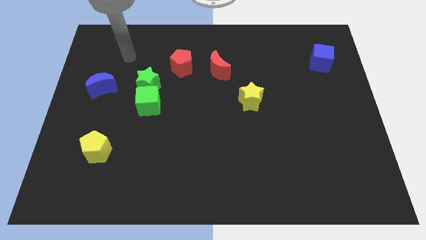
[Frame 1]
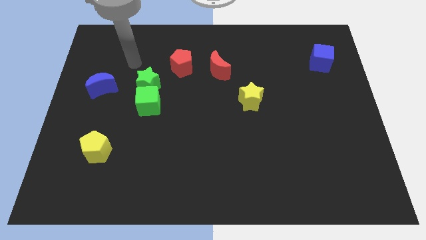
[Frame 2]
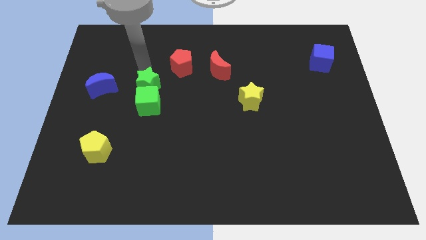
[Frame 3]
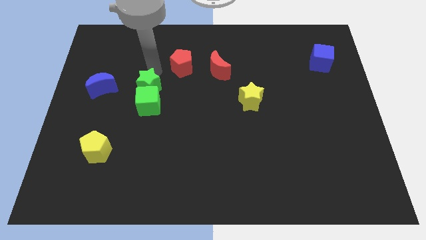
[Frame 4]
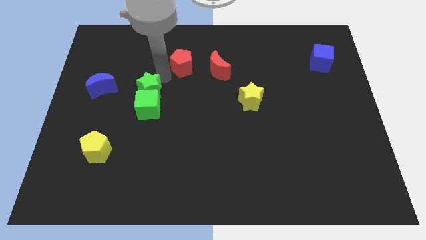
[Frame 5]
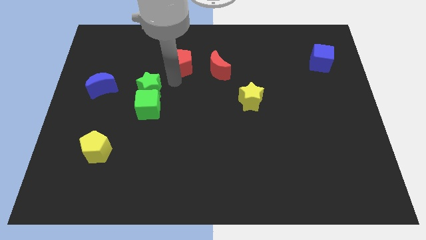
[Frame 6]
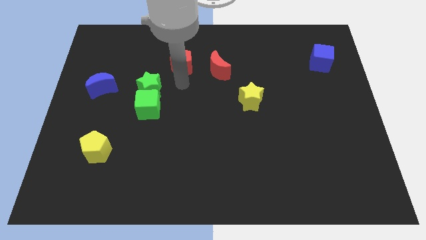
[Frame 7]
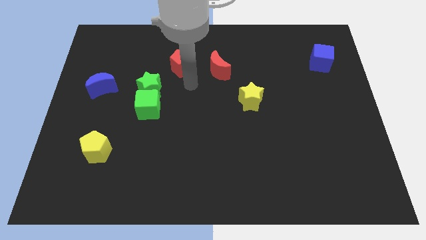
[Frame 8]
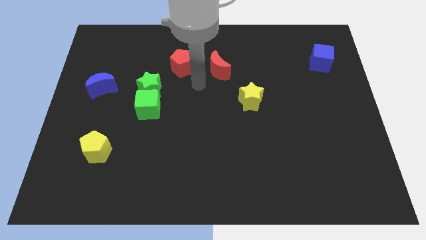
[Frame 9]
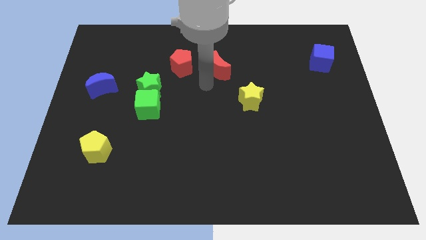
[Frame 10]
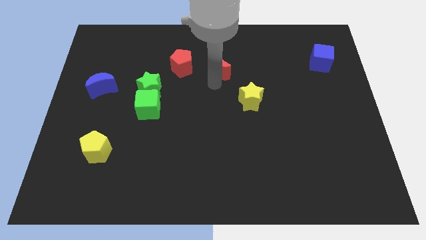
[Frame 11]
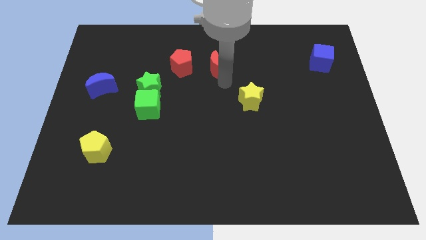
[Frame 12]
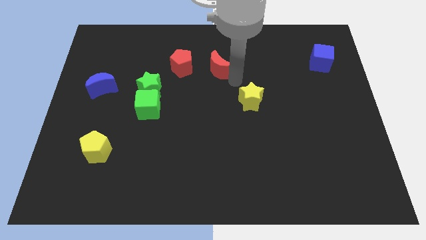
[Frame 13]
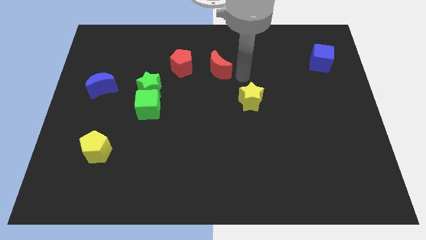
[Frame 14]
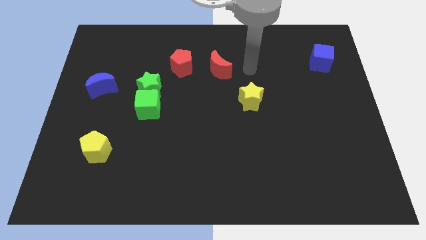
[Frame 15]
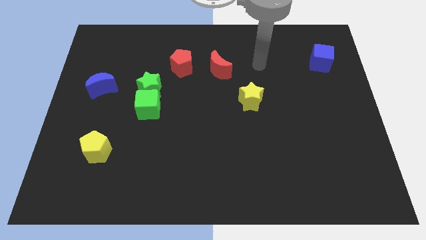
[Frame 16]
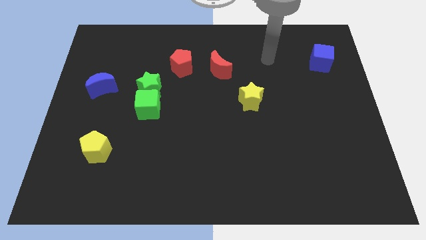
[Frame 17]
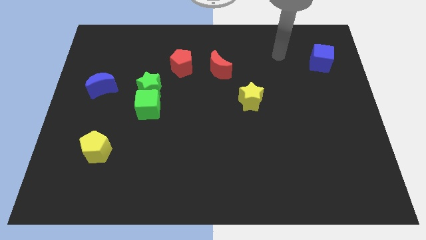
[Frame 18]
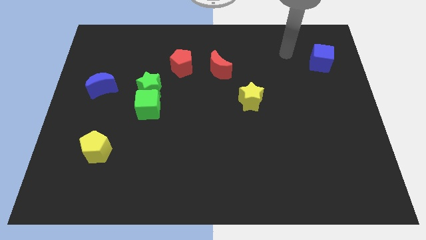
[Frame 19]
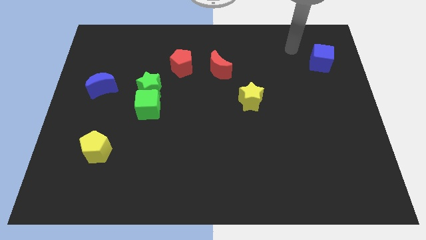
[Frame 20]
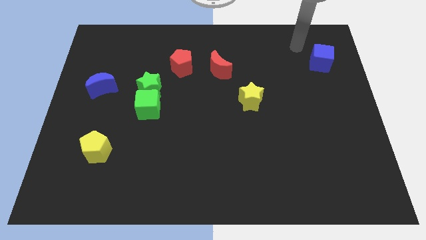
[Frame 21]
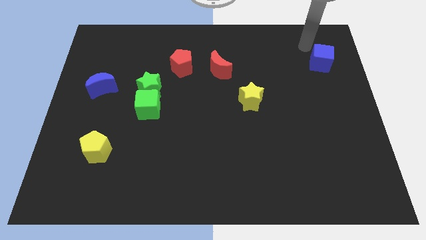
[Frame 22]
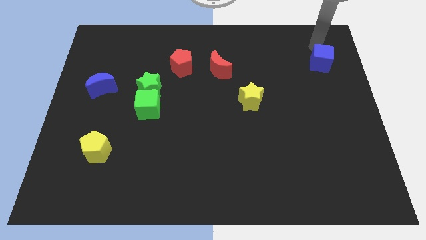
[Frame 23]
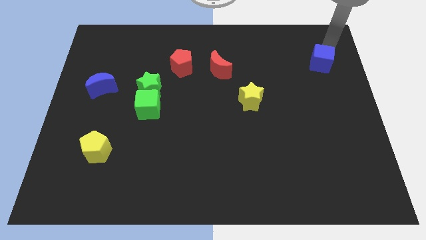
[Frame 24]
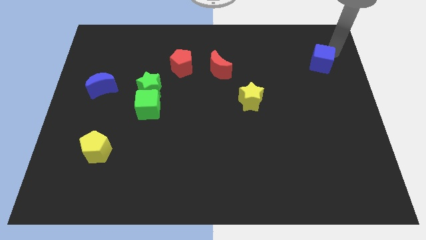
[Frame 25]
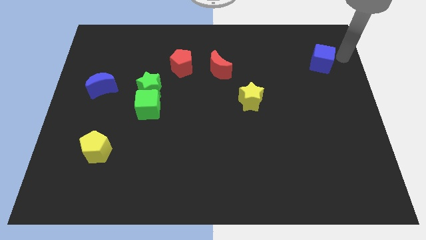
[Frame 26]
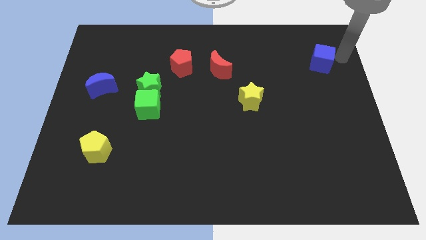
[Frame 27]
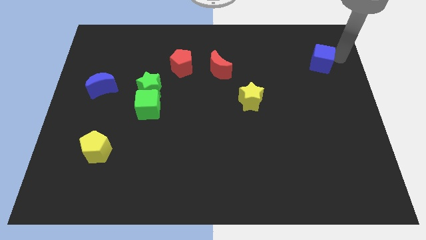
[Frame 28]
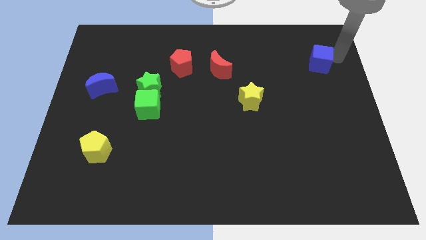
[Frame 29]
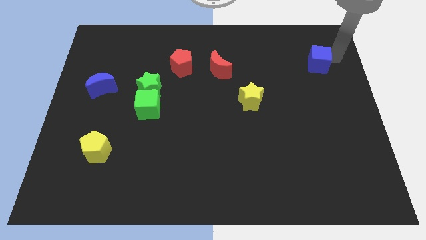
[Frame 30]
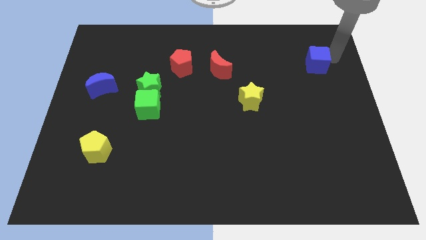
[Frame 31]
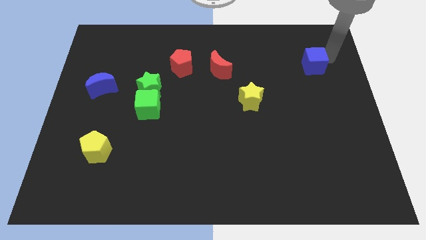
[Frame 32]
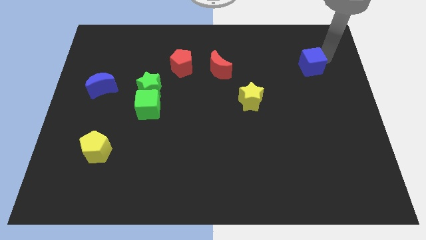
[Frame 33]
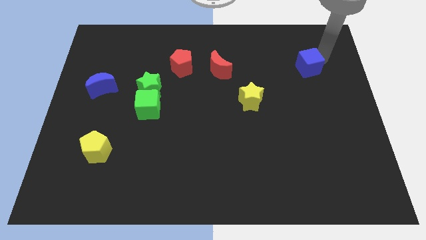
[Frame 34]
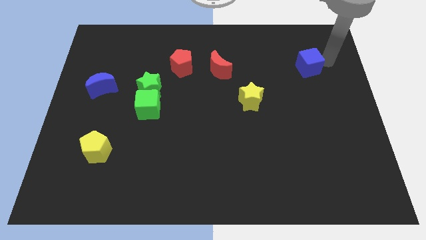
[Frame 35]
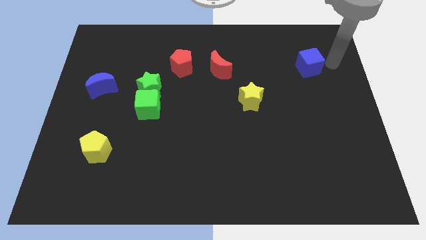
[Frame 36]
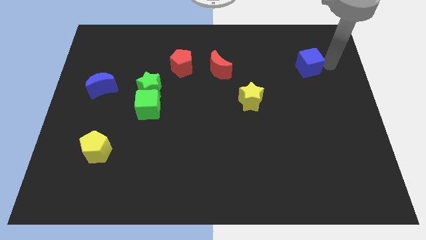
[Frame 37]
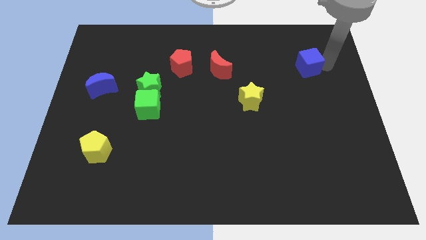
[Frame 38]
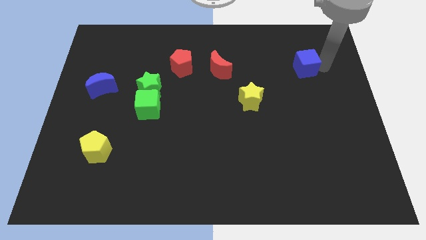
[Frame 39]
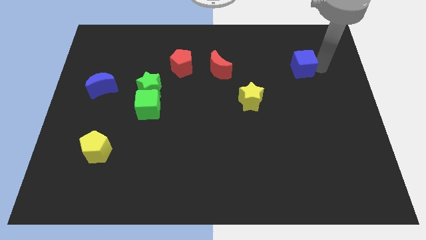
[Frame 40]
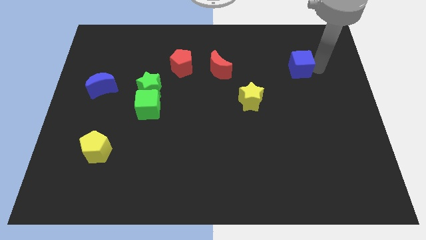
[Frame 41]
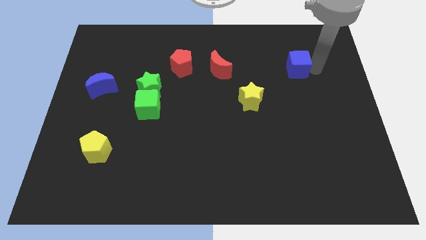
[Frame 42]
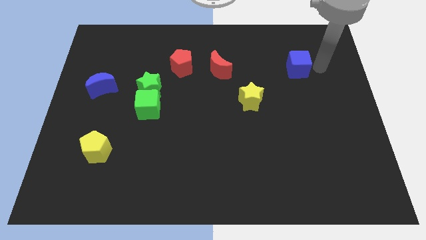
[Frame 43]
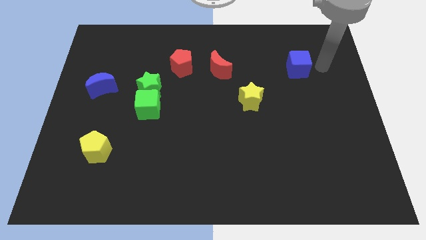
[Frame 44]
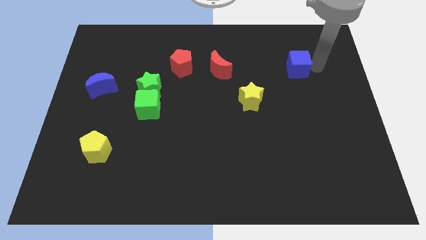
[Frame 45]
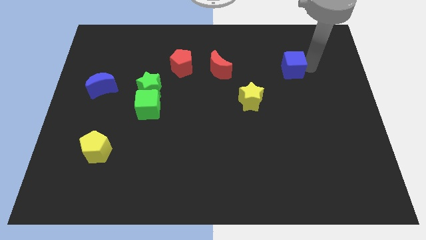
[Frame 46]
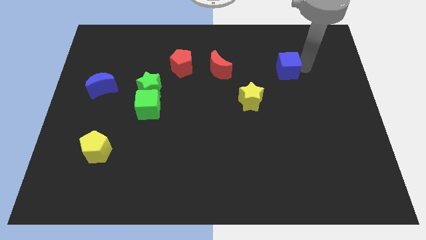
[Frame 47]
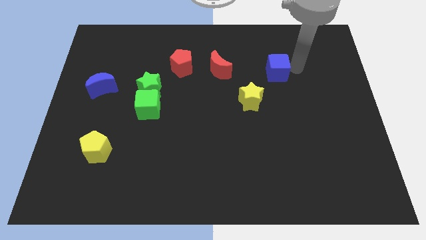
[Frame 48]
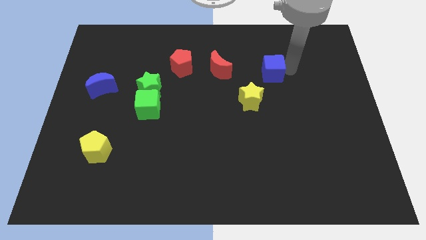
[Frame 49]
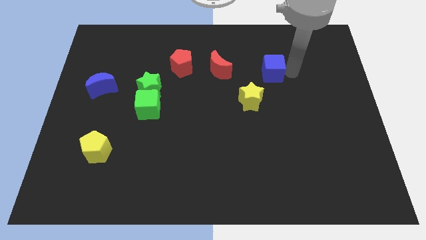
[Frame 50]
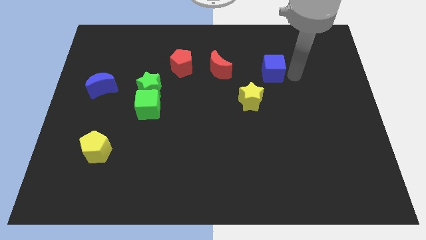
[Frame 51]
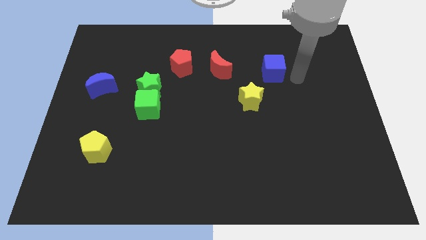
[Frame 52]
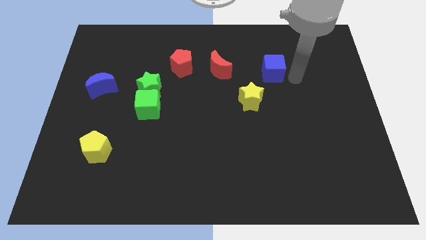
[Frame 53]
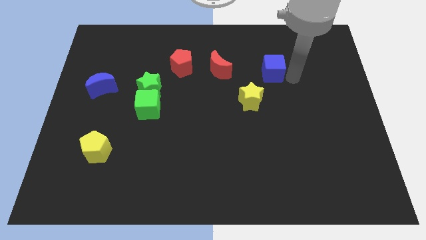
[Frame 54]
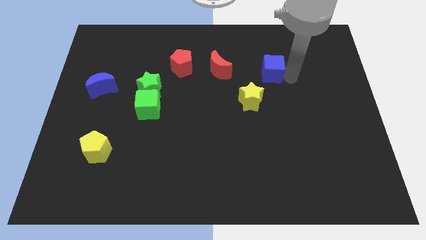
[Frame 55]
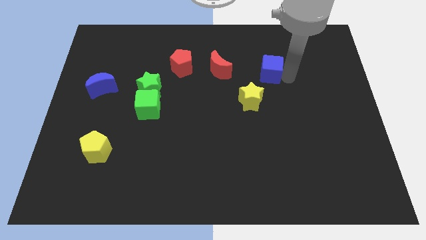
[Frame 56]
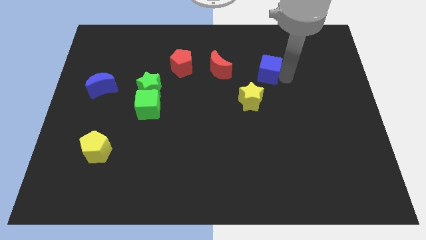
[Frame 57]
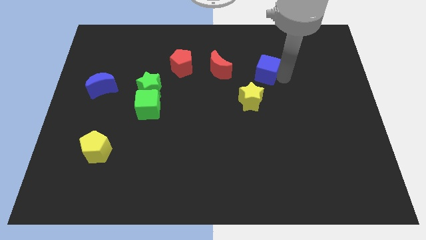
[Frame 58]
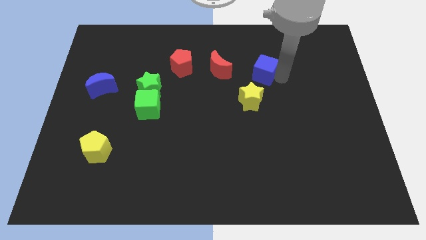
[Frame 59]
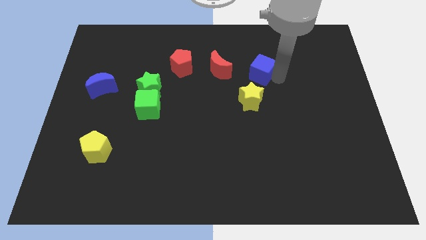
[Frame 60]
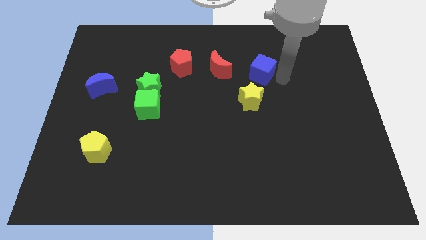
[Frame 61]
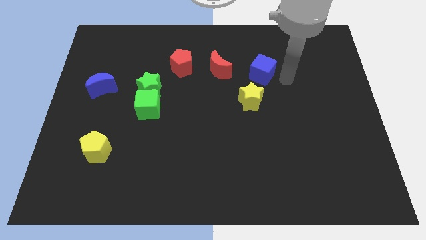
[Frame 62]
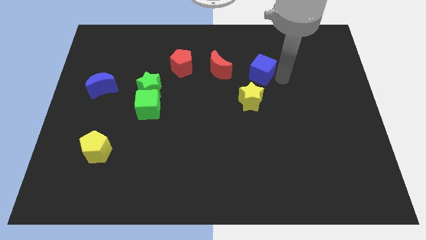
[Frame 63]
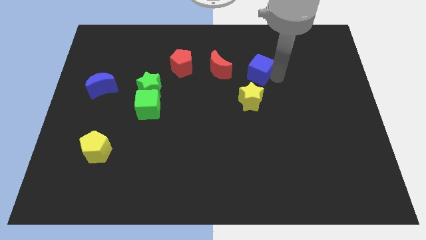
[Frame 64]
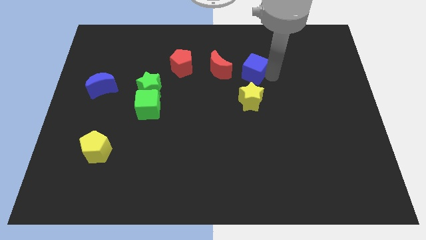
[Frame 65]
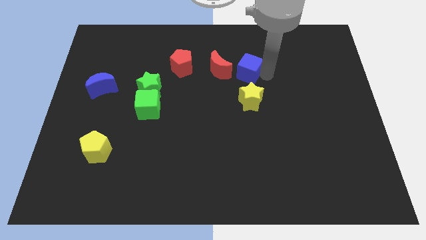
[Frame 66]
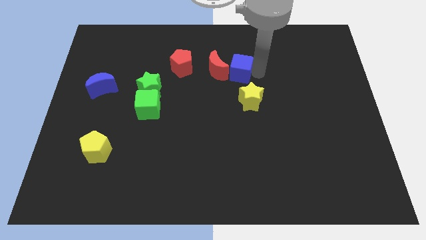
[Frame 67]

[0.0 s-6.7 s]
move the blue cube close to the red moon
